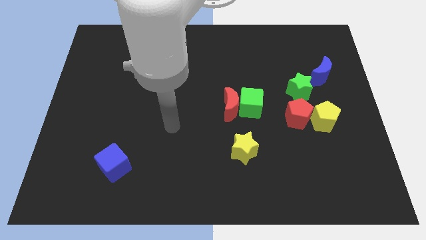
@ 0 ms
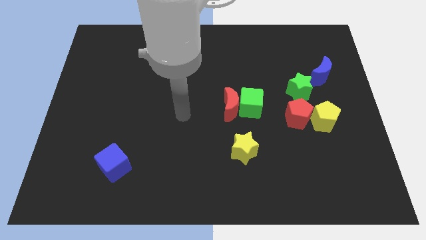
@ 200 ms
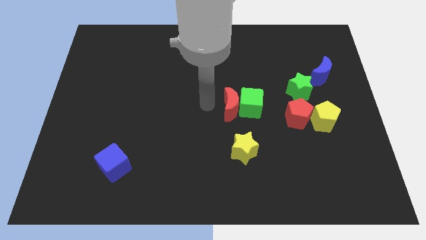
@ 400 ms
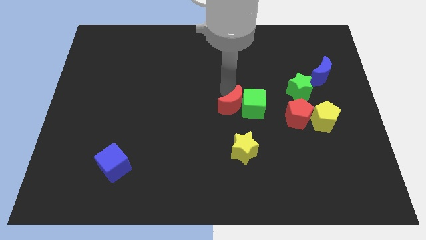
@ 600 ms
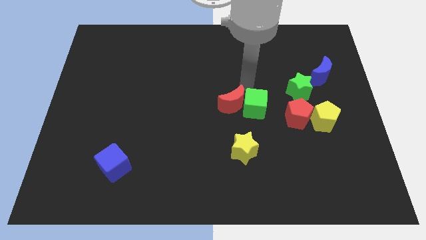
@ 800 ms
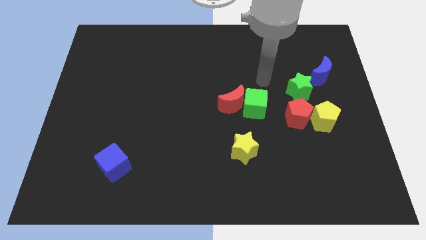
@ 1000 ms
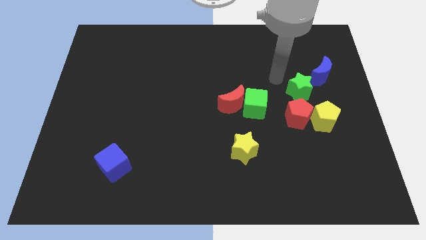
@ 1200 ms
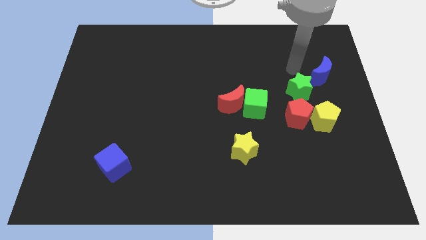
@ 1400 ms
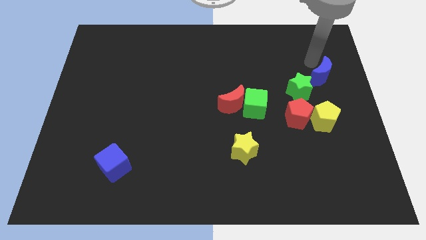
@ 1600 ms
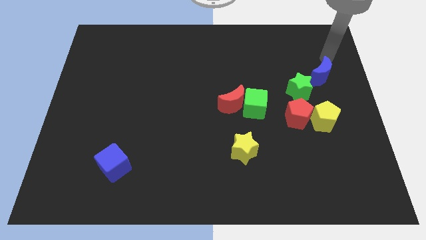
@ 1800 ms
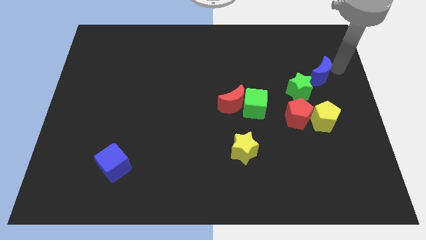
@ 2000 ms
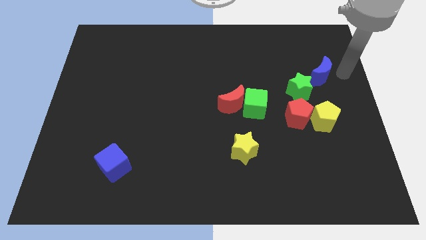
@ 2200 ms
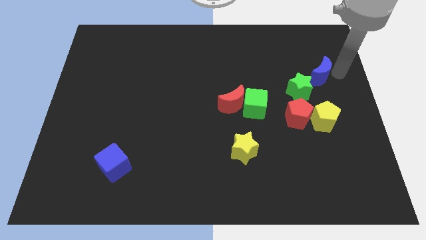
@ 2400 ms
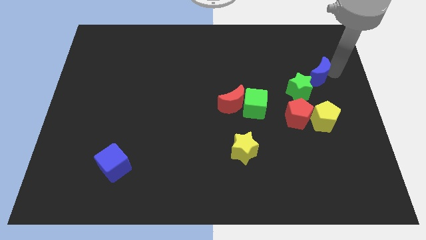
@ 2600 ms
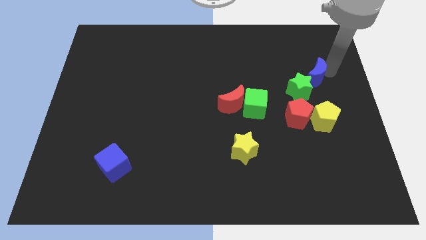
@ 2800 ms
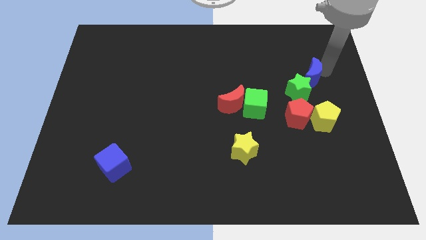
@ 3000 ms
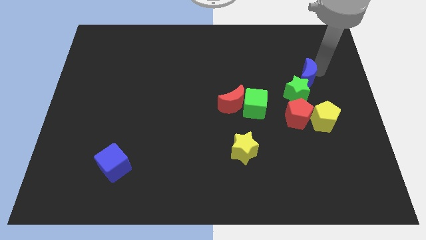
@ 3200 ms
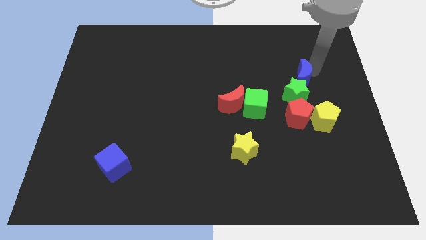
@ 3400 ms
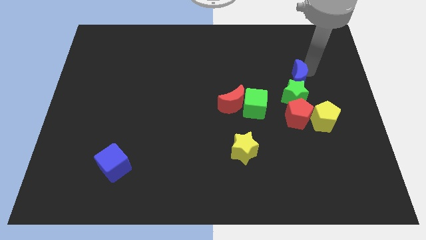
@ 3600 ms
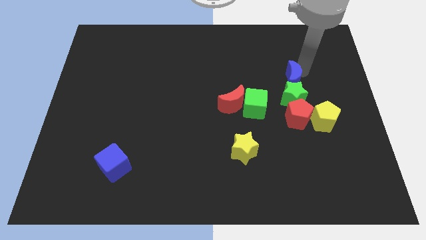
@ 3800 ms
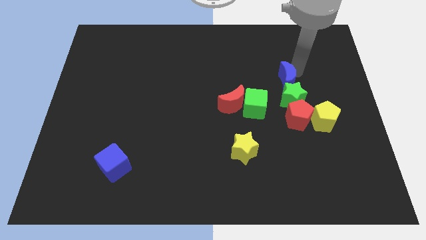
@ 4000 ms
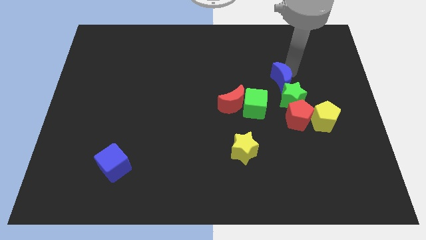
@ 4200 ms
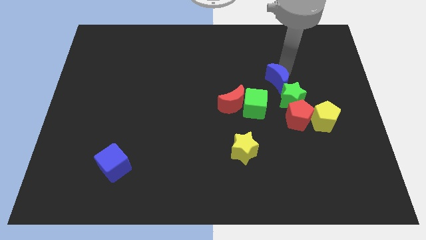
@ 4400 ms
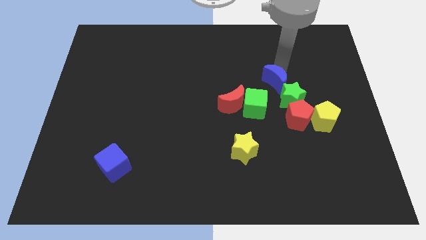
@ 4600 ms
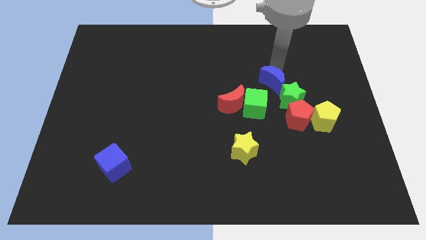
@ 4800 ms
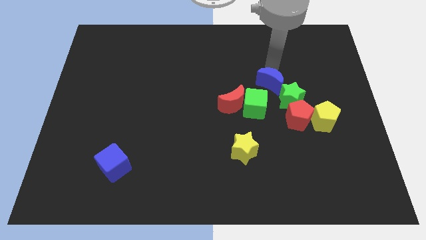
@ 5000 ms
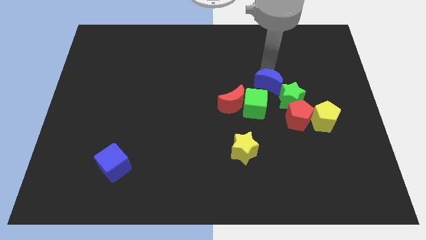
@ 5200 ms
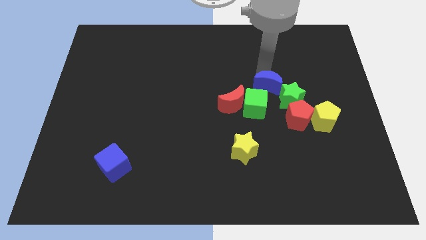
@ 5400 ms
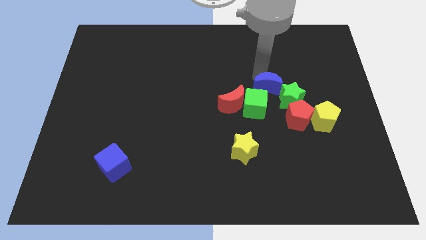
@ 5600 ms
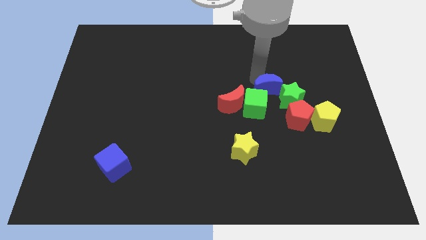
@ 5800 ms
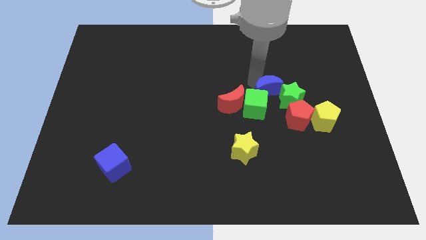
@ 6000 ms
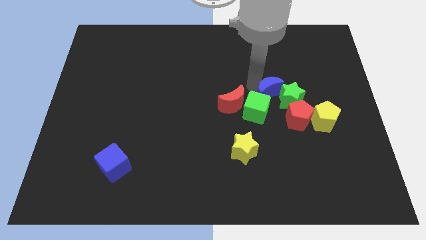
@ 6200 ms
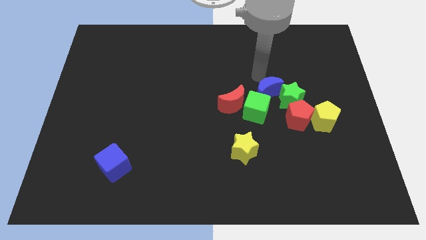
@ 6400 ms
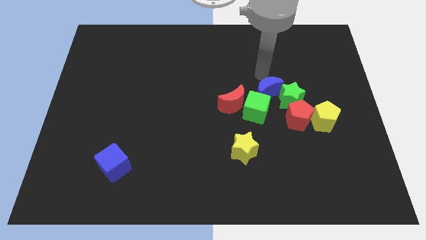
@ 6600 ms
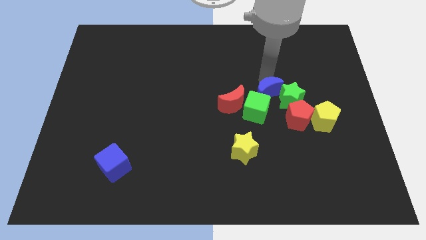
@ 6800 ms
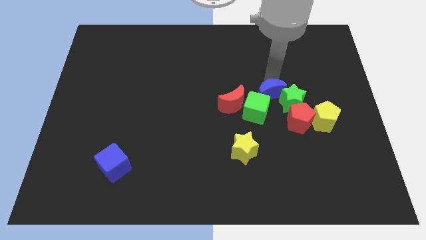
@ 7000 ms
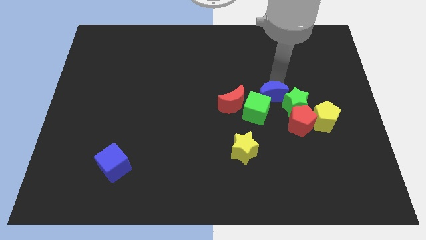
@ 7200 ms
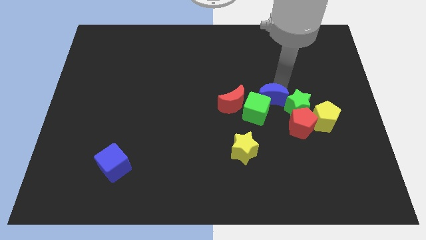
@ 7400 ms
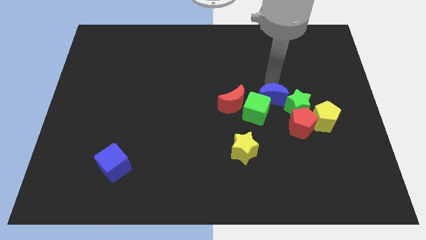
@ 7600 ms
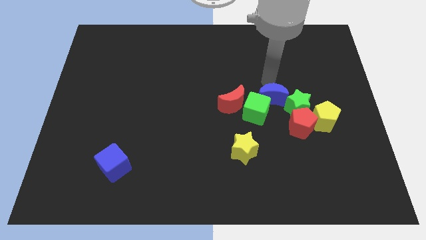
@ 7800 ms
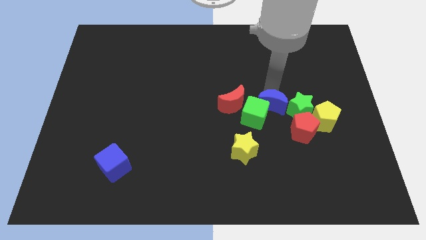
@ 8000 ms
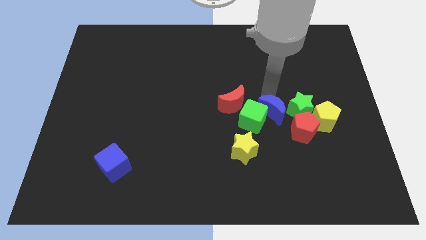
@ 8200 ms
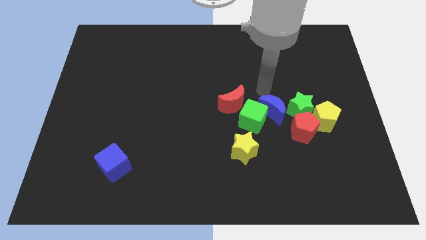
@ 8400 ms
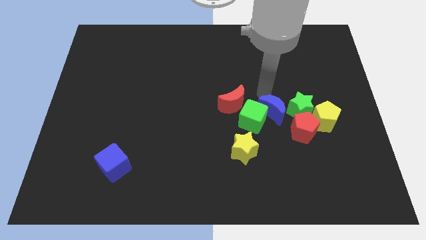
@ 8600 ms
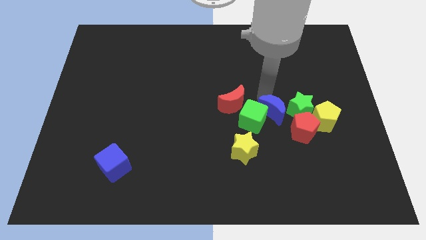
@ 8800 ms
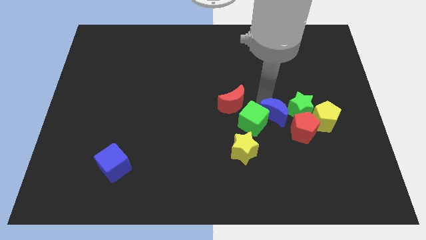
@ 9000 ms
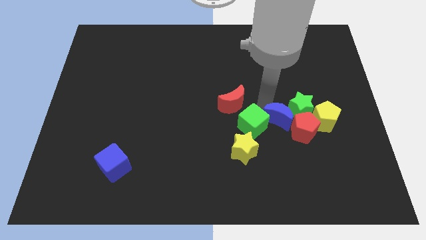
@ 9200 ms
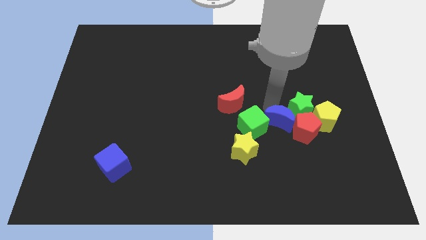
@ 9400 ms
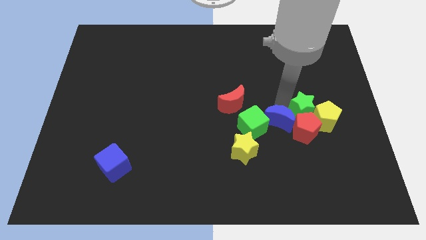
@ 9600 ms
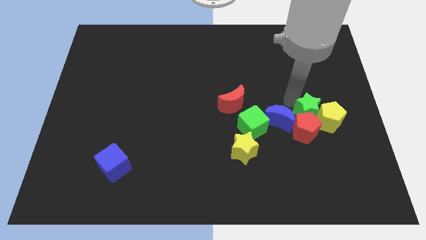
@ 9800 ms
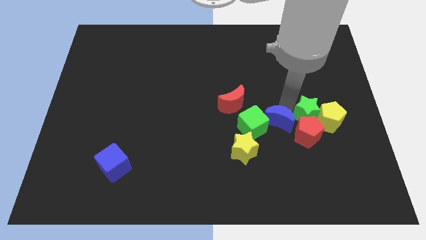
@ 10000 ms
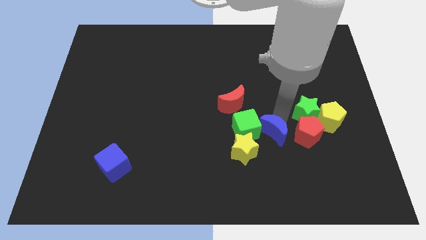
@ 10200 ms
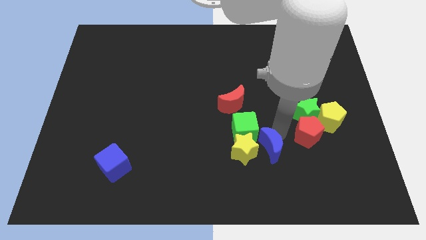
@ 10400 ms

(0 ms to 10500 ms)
push the blue moon to the yellow star

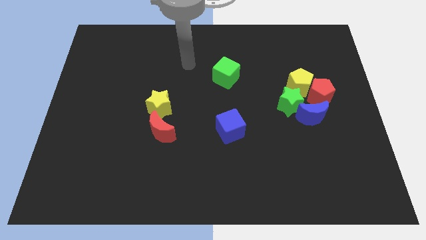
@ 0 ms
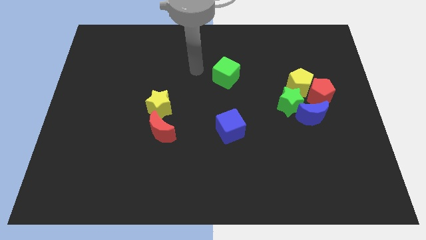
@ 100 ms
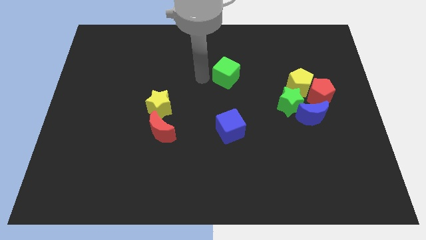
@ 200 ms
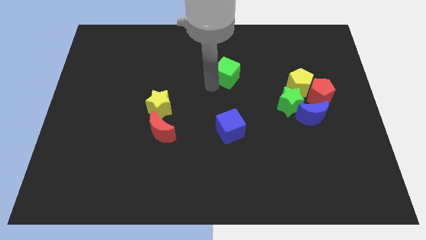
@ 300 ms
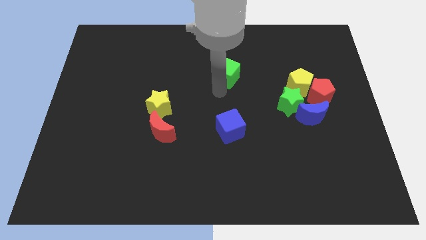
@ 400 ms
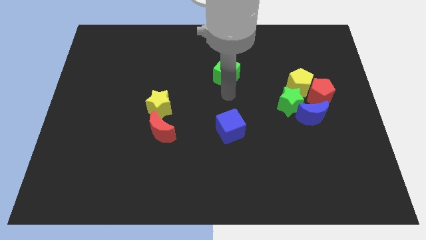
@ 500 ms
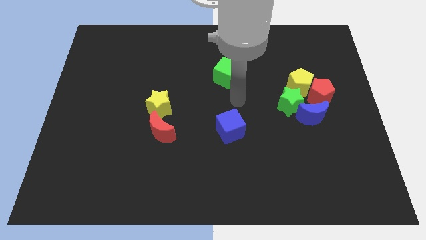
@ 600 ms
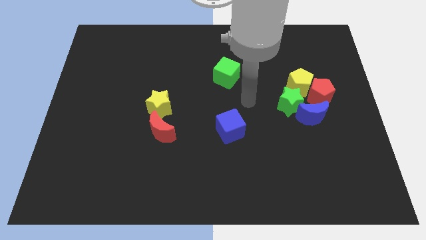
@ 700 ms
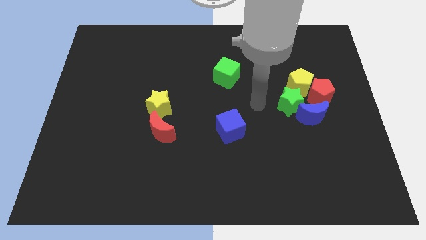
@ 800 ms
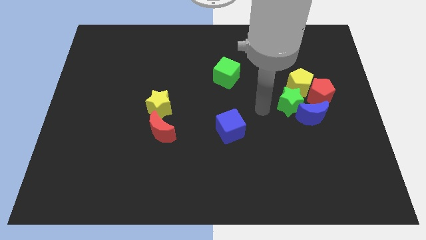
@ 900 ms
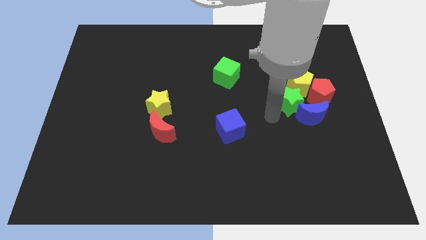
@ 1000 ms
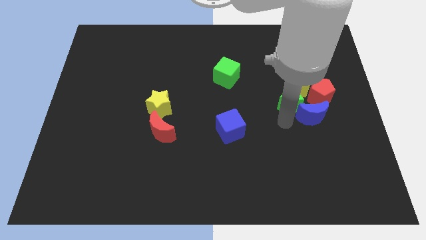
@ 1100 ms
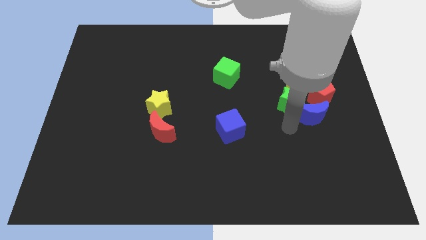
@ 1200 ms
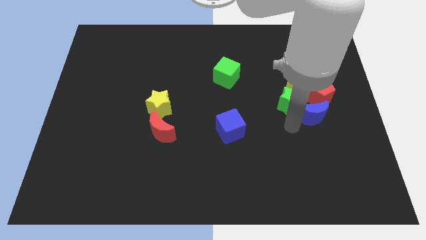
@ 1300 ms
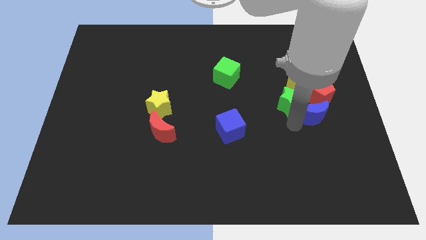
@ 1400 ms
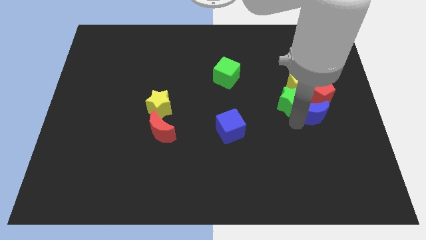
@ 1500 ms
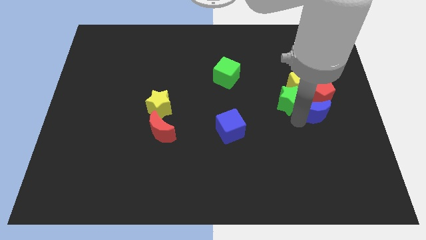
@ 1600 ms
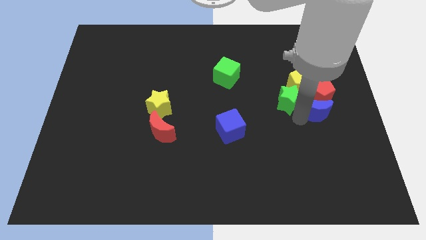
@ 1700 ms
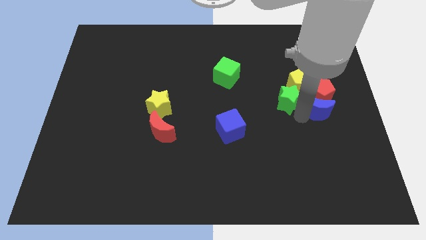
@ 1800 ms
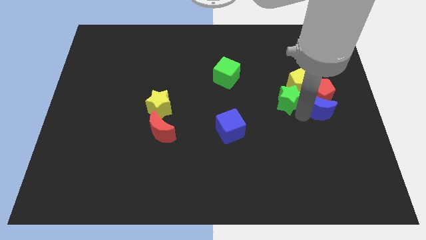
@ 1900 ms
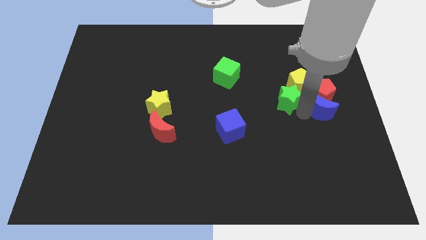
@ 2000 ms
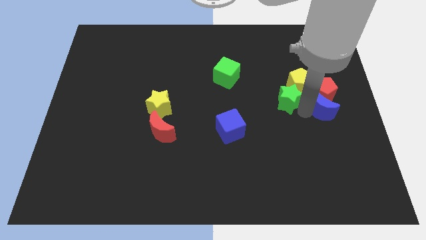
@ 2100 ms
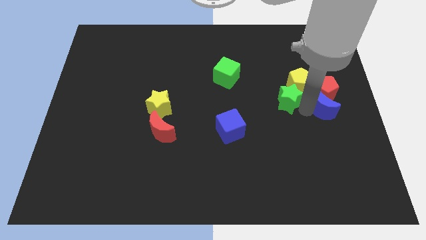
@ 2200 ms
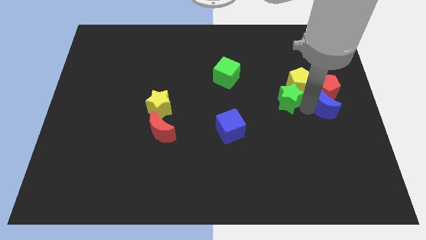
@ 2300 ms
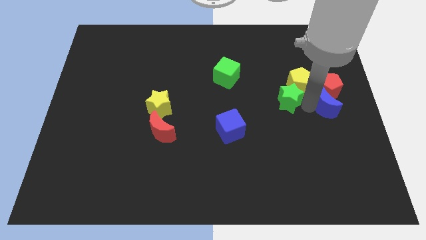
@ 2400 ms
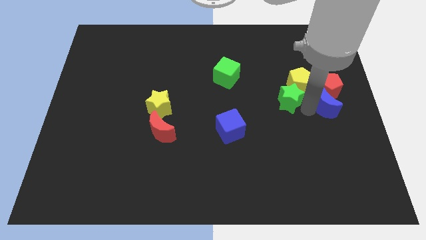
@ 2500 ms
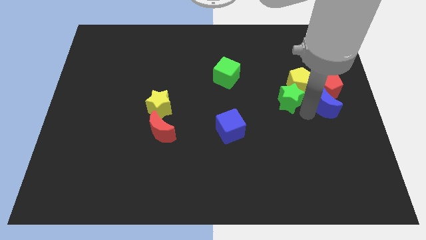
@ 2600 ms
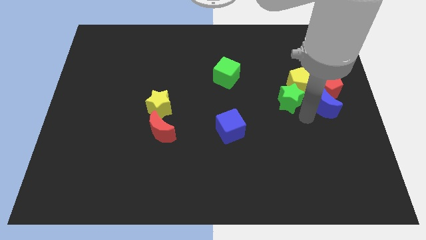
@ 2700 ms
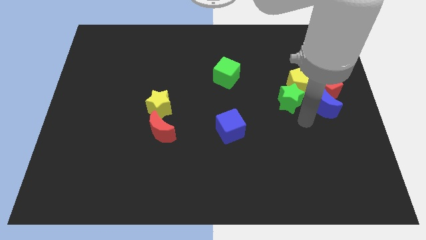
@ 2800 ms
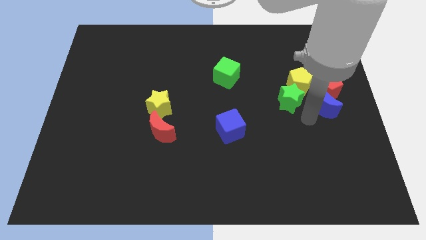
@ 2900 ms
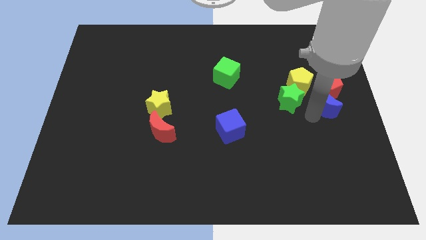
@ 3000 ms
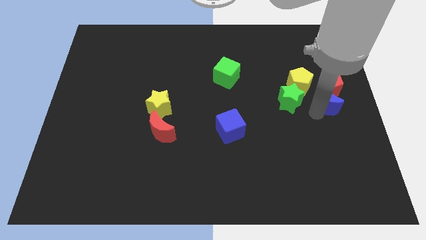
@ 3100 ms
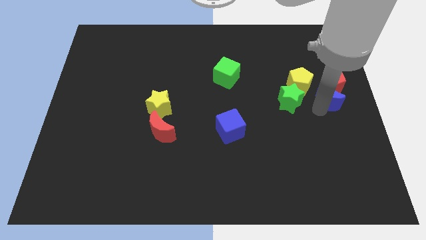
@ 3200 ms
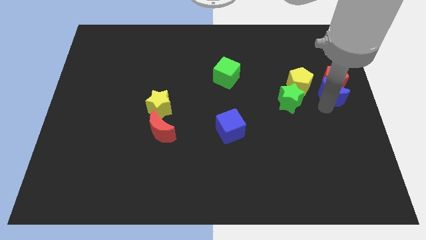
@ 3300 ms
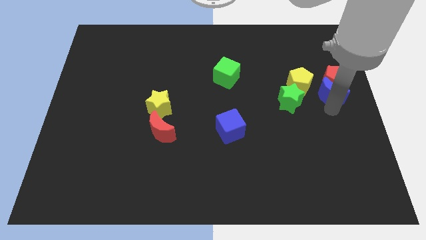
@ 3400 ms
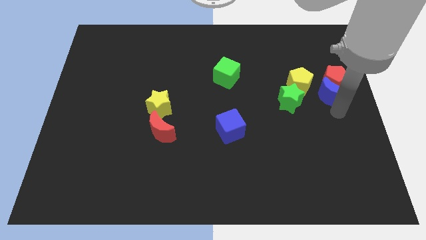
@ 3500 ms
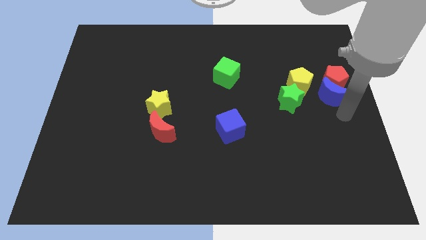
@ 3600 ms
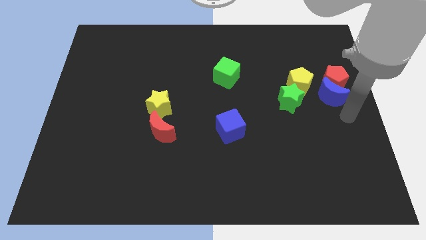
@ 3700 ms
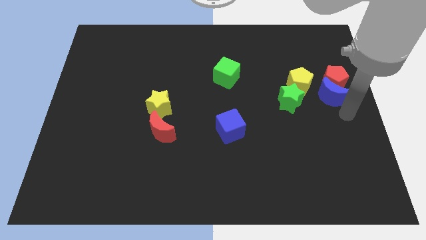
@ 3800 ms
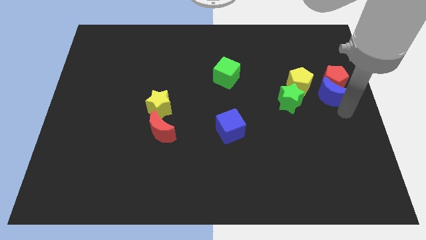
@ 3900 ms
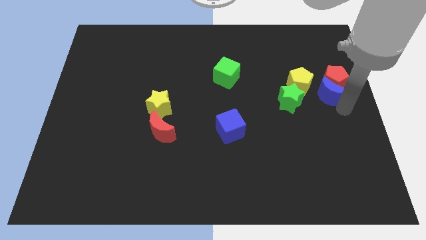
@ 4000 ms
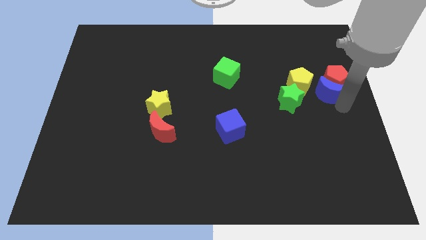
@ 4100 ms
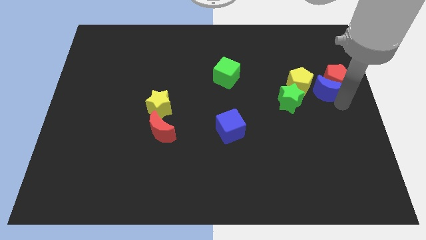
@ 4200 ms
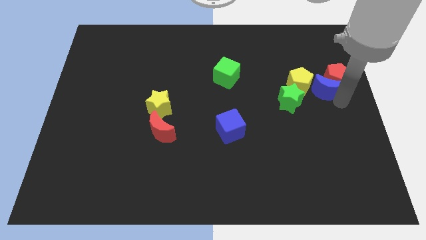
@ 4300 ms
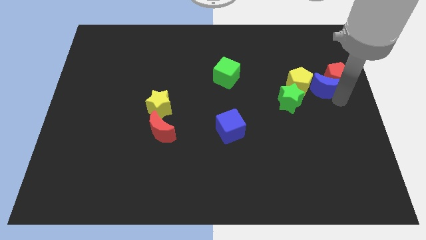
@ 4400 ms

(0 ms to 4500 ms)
push the blue moon to the yellow pentagon
